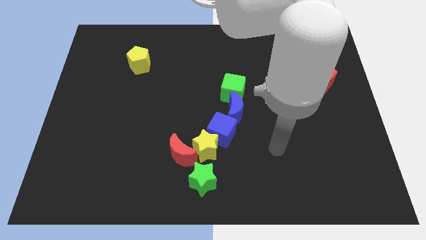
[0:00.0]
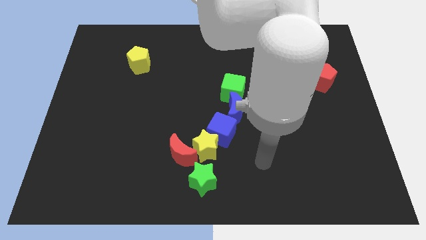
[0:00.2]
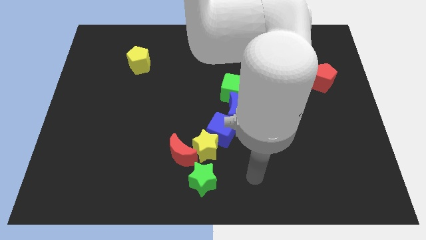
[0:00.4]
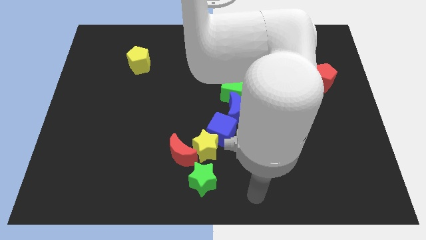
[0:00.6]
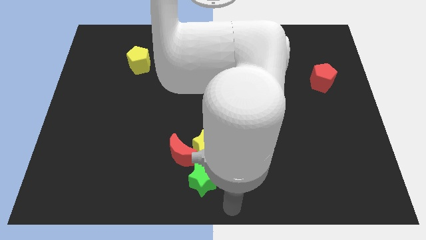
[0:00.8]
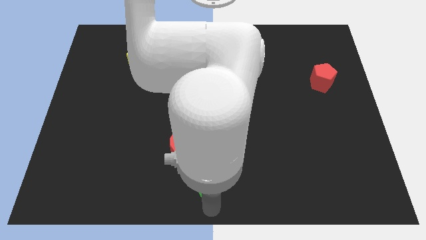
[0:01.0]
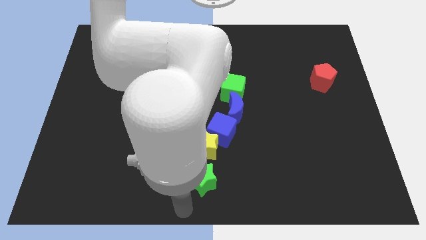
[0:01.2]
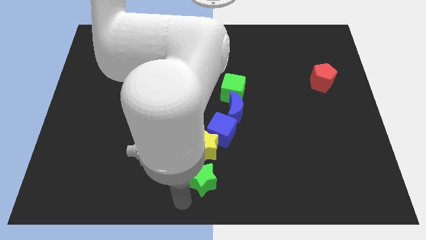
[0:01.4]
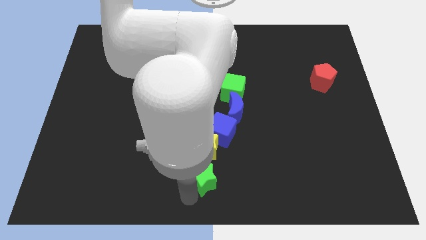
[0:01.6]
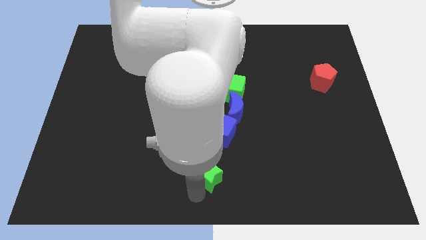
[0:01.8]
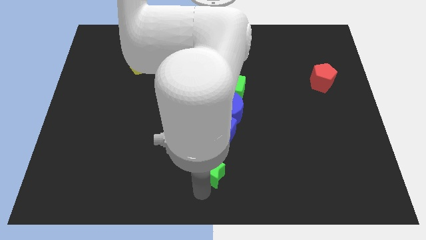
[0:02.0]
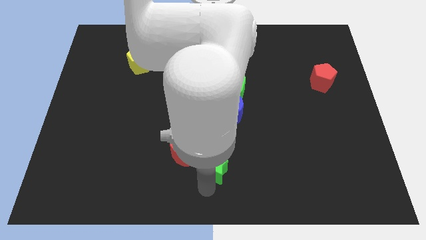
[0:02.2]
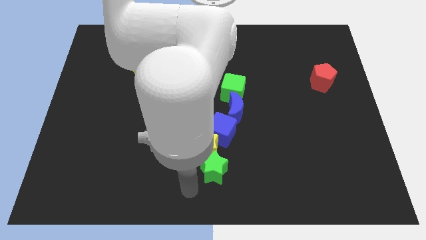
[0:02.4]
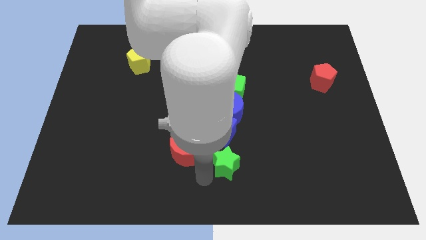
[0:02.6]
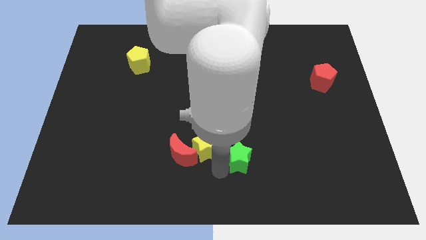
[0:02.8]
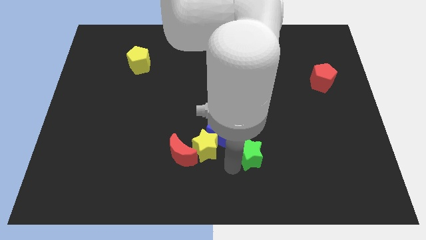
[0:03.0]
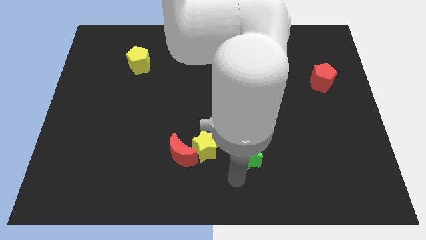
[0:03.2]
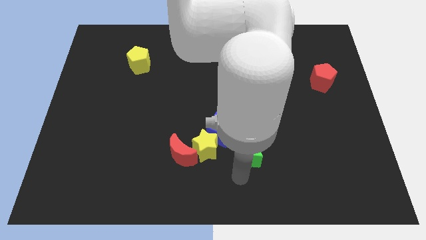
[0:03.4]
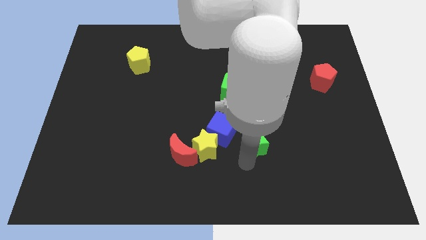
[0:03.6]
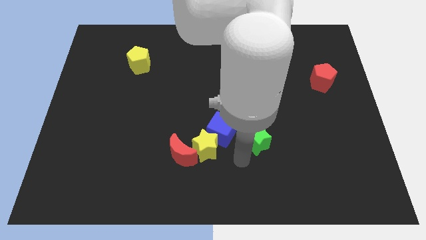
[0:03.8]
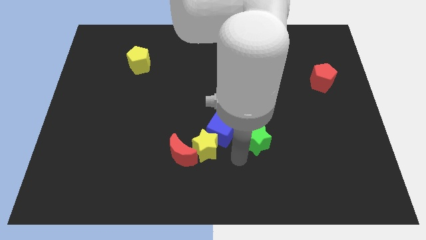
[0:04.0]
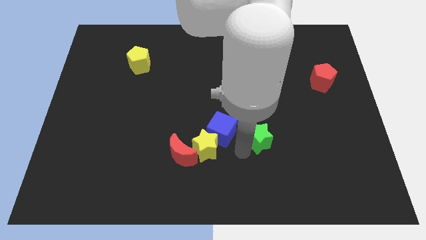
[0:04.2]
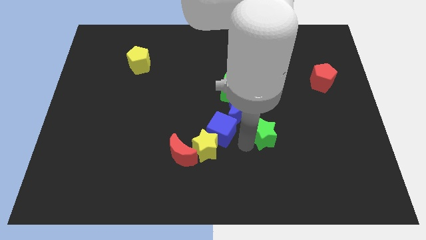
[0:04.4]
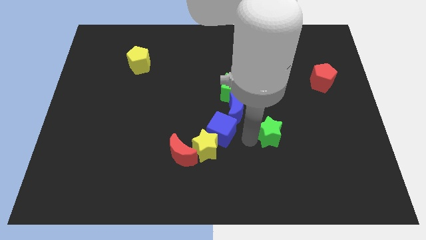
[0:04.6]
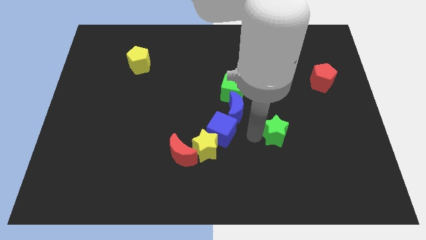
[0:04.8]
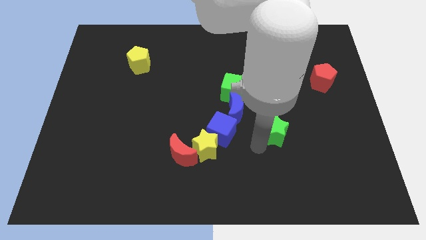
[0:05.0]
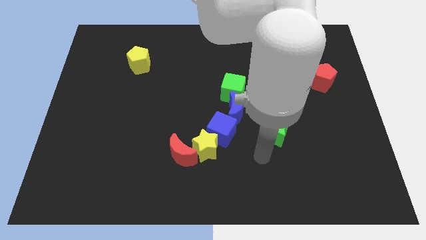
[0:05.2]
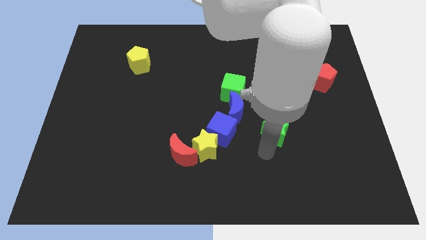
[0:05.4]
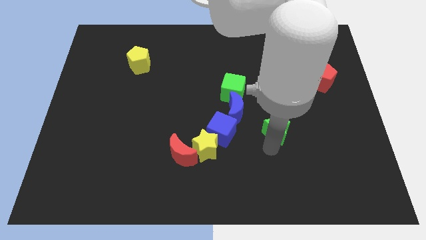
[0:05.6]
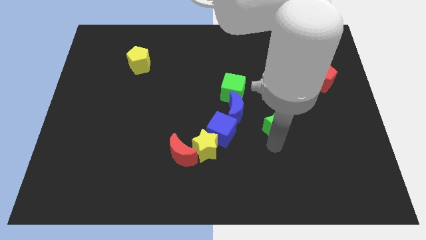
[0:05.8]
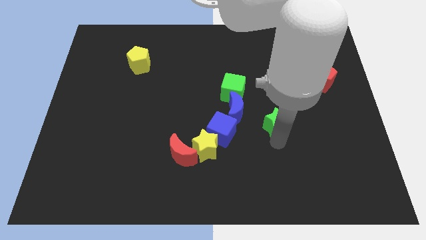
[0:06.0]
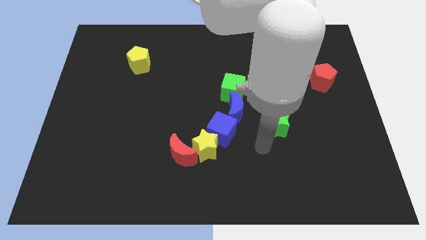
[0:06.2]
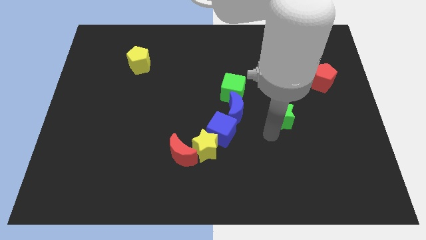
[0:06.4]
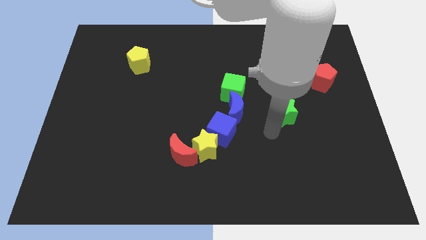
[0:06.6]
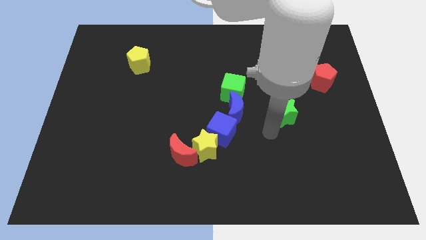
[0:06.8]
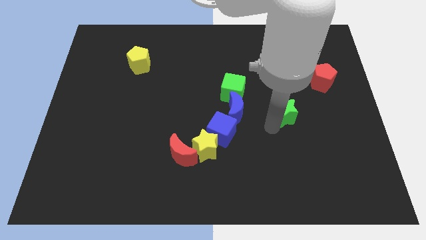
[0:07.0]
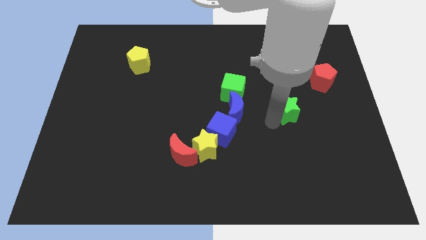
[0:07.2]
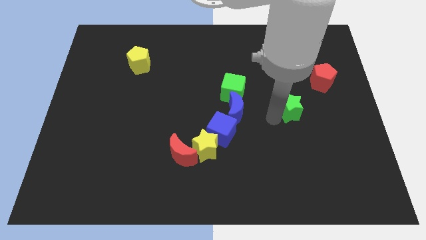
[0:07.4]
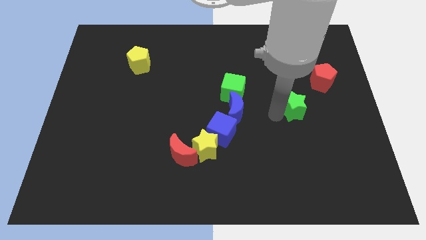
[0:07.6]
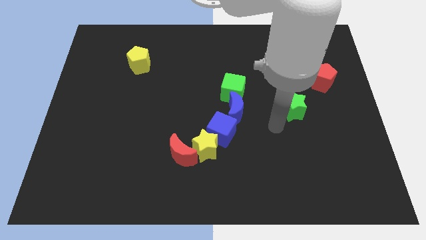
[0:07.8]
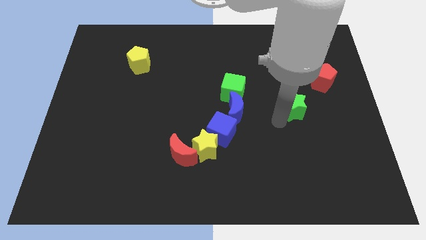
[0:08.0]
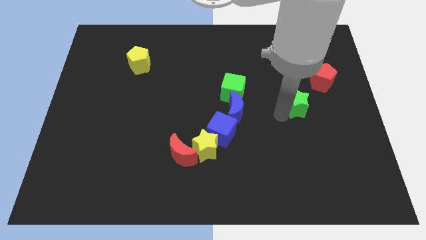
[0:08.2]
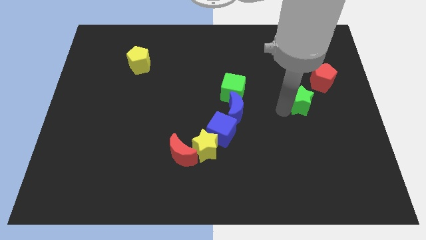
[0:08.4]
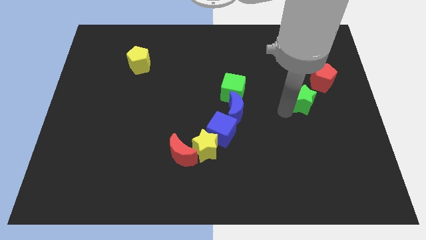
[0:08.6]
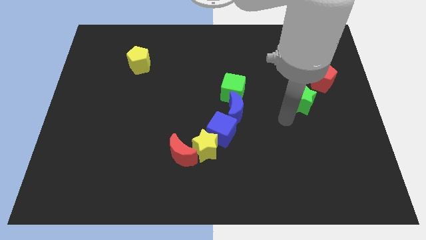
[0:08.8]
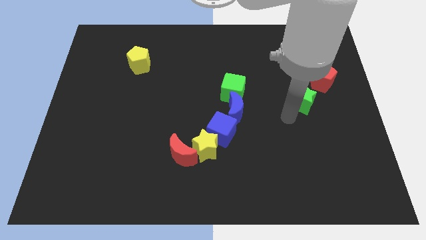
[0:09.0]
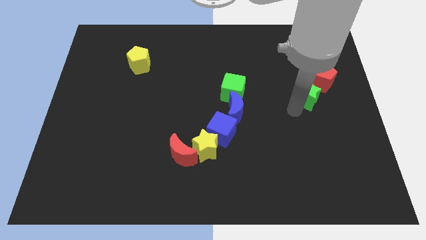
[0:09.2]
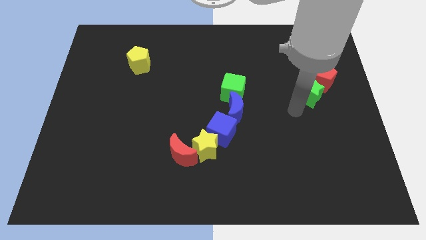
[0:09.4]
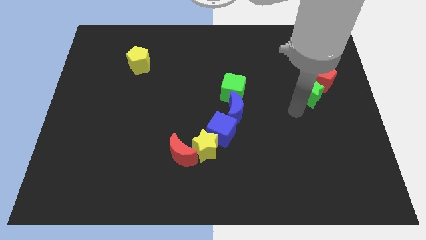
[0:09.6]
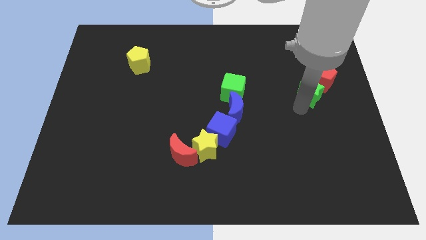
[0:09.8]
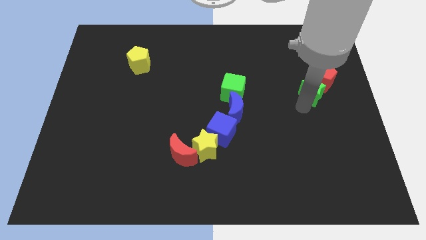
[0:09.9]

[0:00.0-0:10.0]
move the green star to the red pentagon

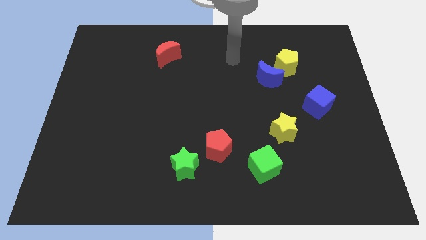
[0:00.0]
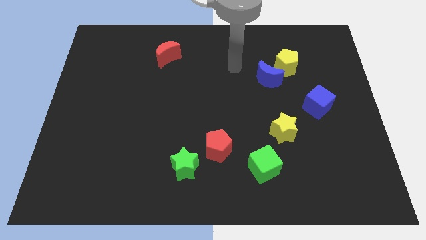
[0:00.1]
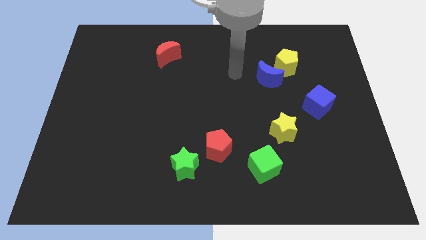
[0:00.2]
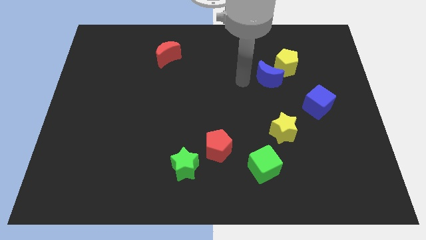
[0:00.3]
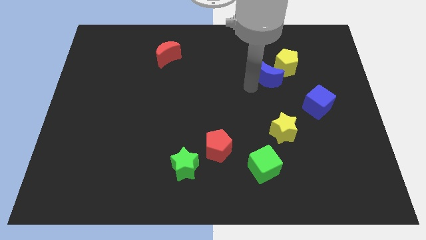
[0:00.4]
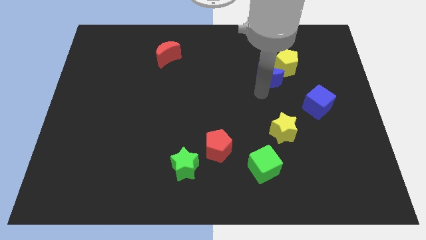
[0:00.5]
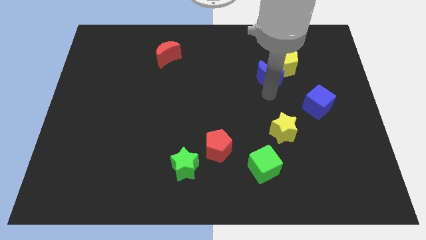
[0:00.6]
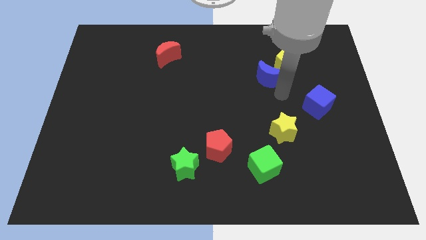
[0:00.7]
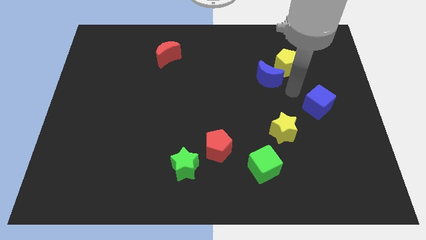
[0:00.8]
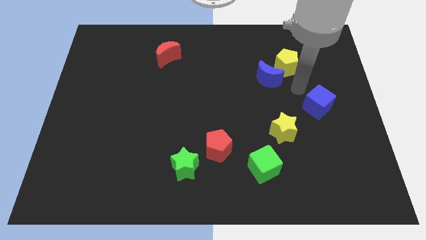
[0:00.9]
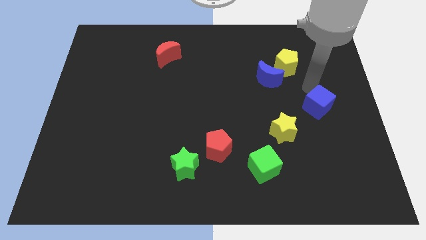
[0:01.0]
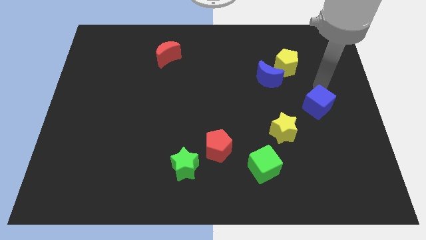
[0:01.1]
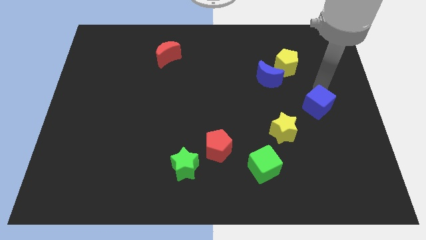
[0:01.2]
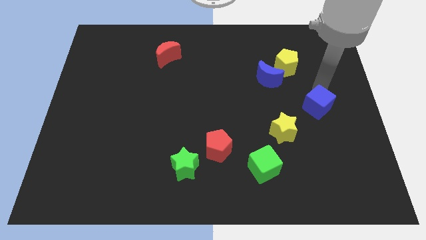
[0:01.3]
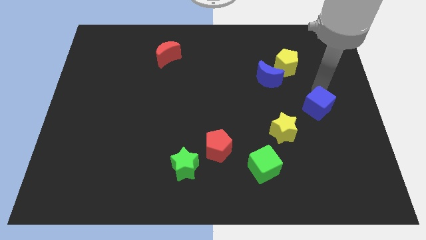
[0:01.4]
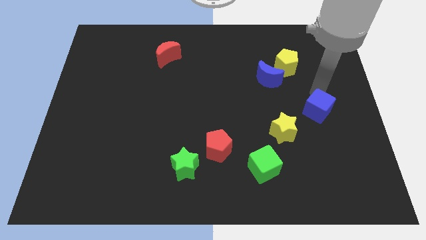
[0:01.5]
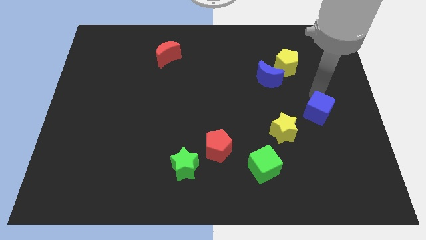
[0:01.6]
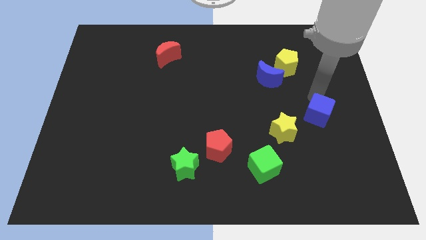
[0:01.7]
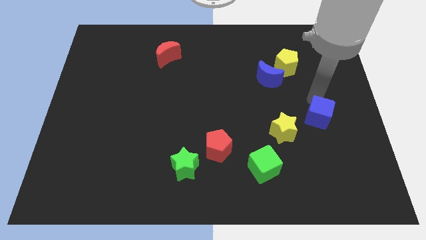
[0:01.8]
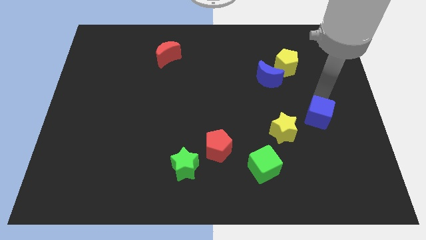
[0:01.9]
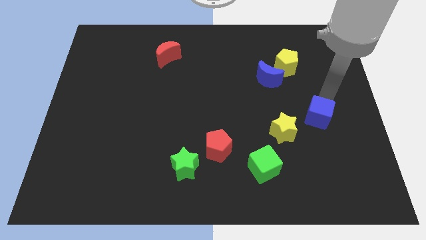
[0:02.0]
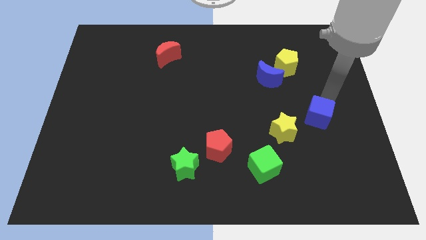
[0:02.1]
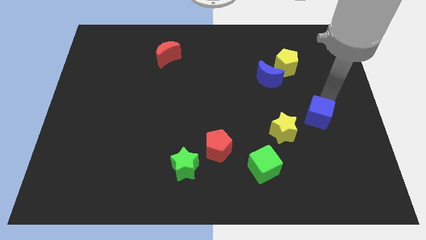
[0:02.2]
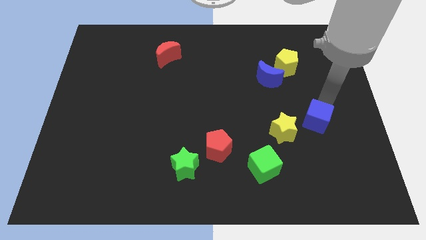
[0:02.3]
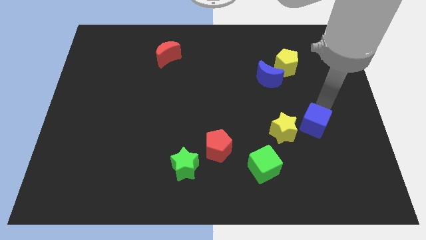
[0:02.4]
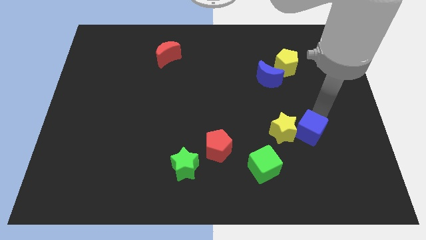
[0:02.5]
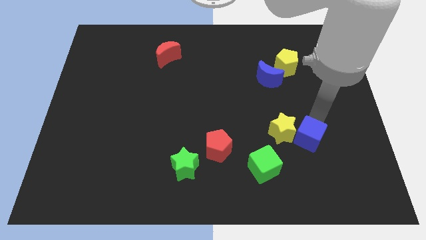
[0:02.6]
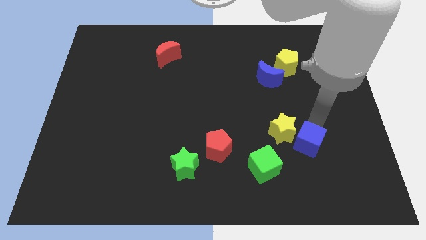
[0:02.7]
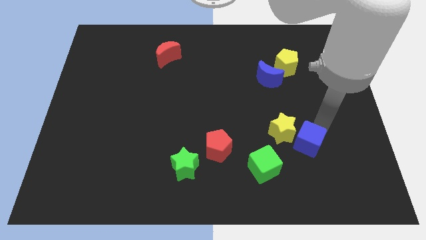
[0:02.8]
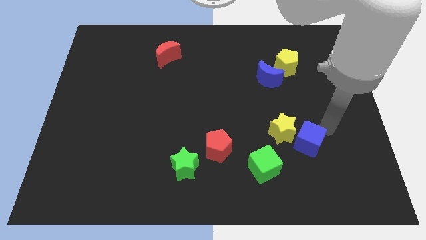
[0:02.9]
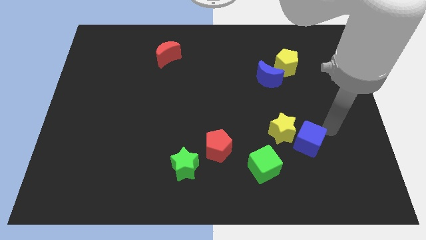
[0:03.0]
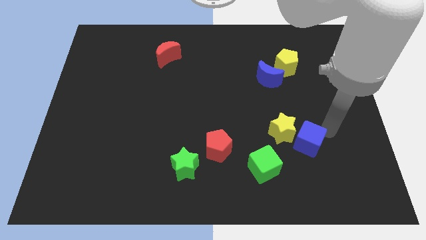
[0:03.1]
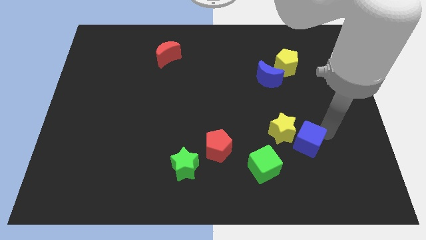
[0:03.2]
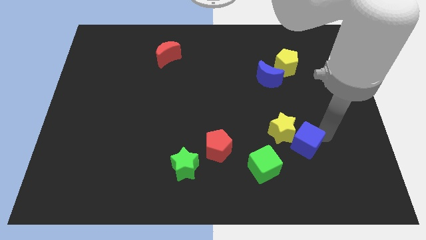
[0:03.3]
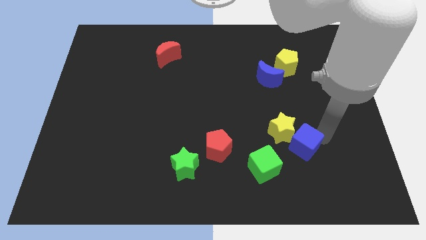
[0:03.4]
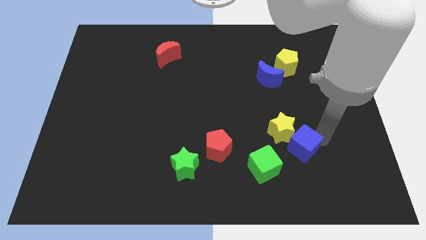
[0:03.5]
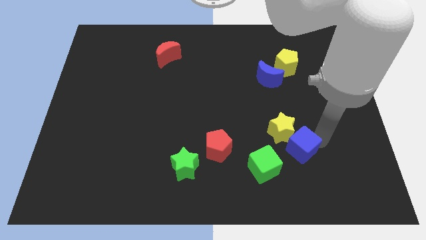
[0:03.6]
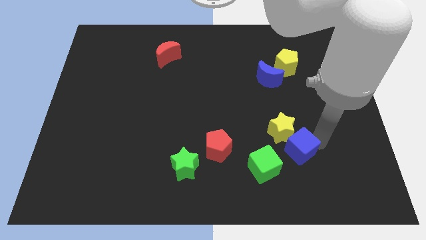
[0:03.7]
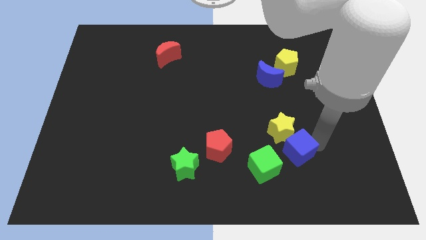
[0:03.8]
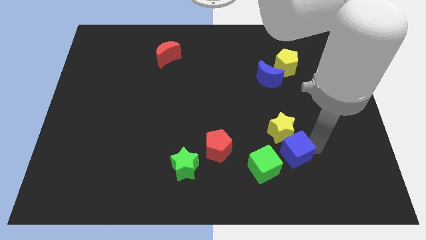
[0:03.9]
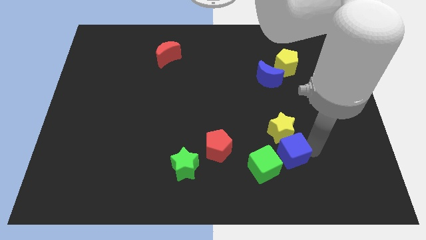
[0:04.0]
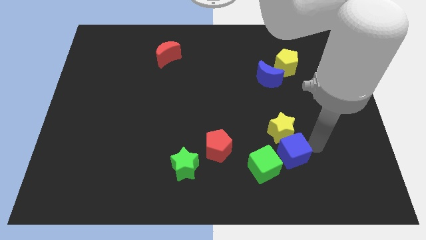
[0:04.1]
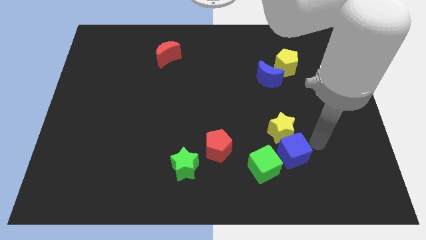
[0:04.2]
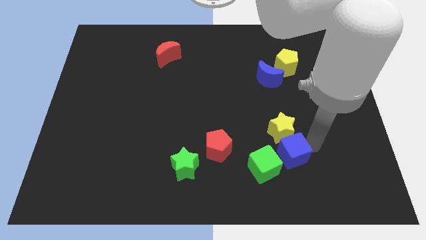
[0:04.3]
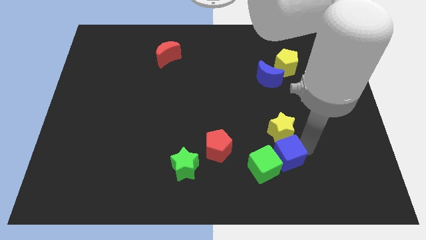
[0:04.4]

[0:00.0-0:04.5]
move the blue cube towards the green cube
